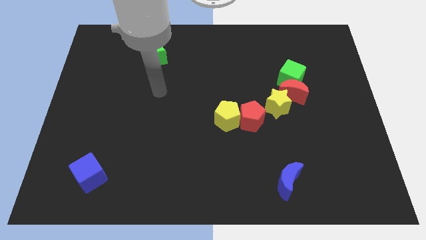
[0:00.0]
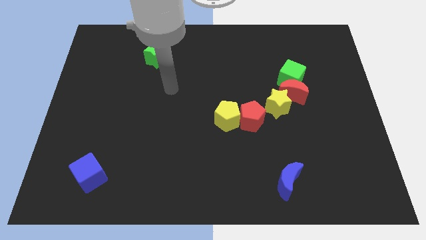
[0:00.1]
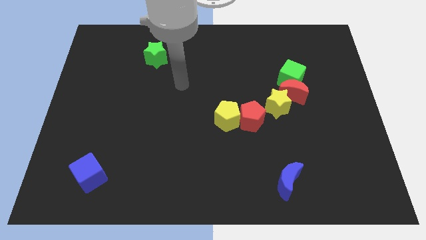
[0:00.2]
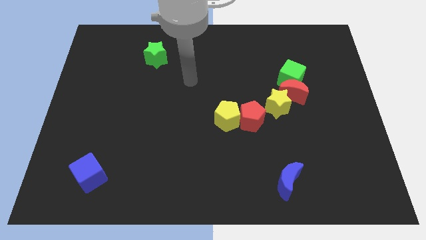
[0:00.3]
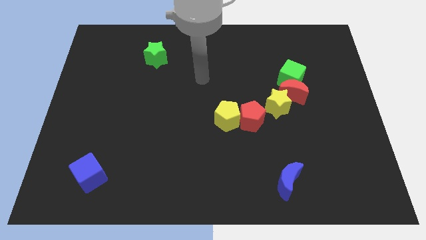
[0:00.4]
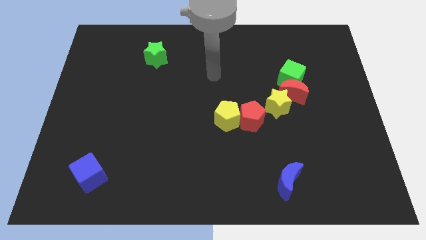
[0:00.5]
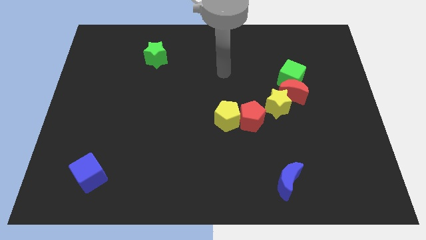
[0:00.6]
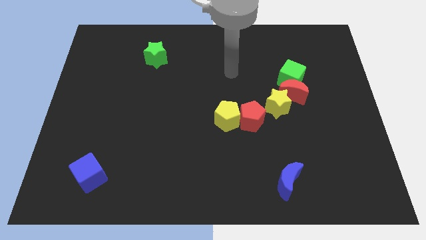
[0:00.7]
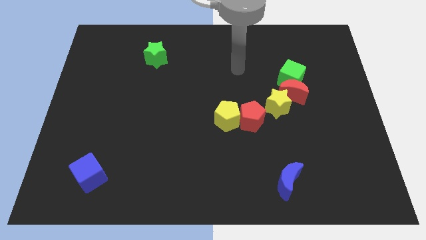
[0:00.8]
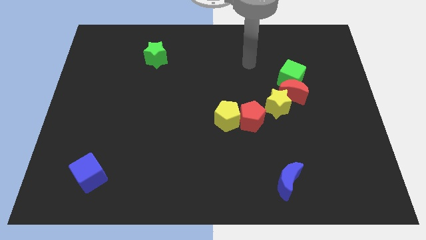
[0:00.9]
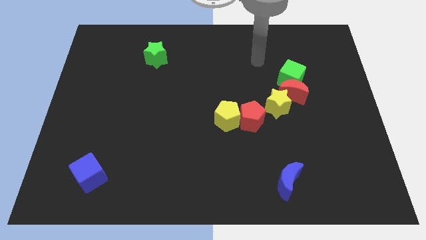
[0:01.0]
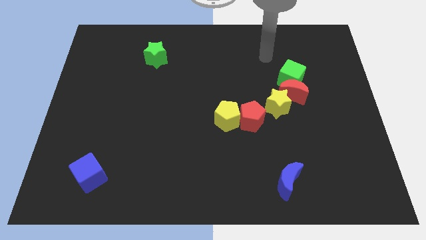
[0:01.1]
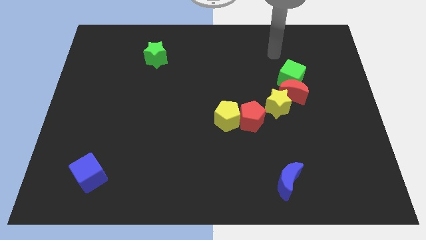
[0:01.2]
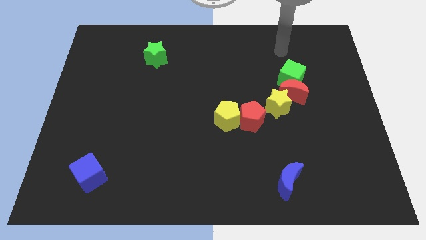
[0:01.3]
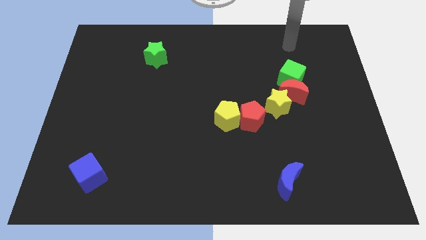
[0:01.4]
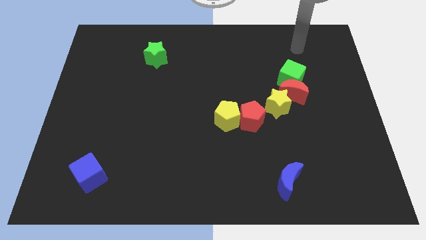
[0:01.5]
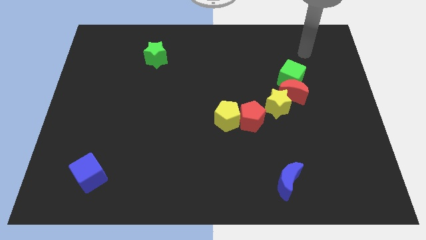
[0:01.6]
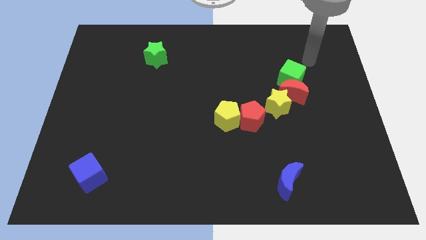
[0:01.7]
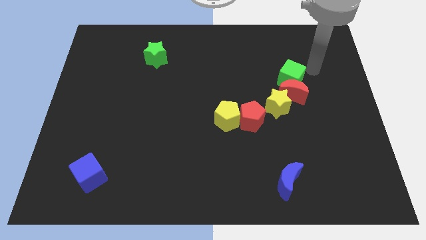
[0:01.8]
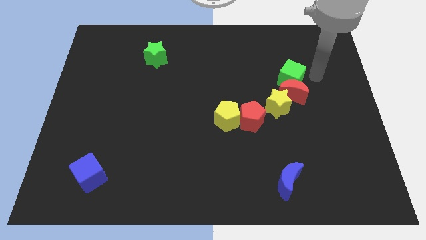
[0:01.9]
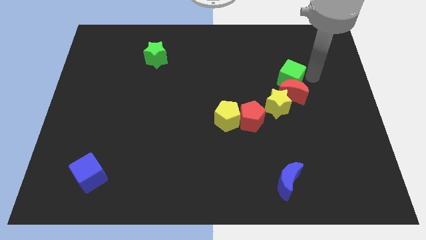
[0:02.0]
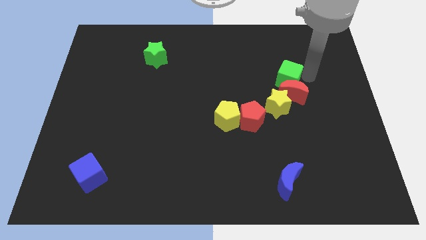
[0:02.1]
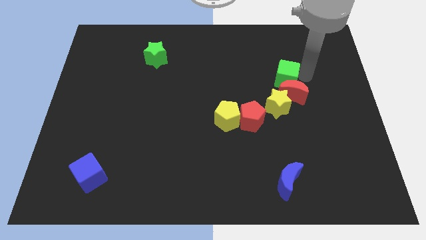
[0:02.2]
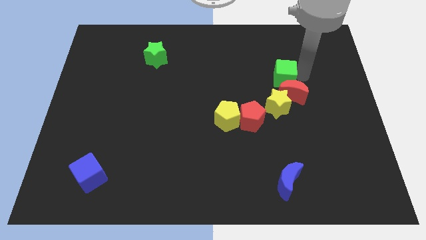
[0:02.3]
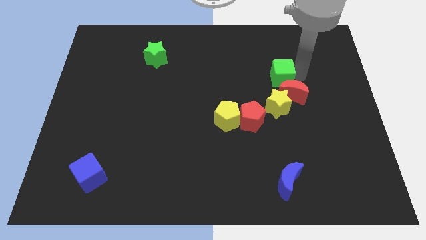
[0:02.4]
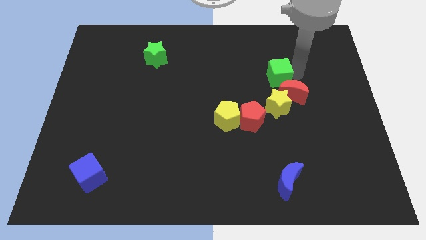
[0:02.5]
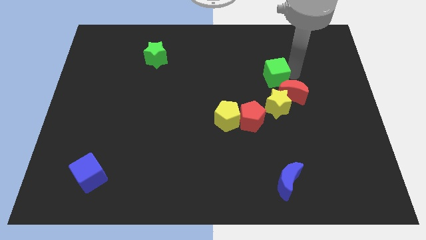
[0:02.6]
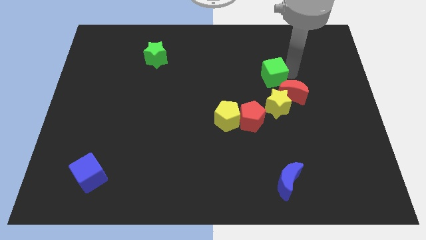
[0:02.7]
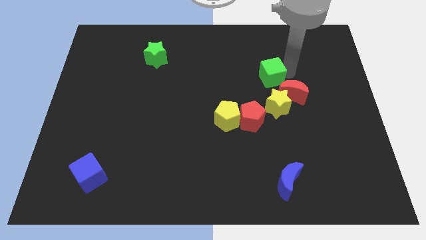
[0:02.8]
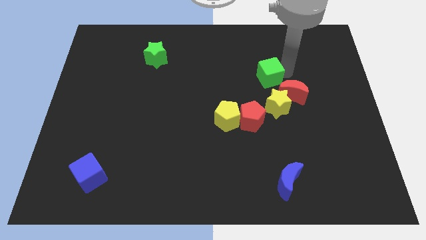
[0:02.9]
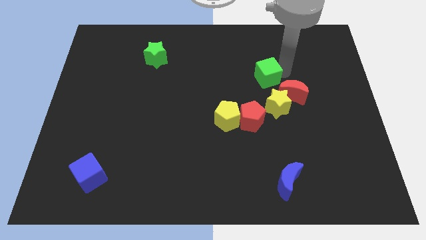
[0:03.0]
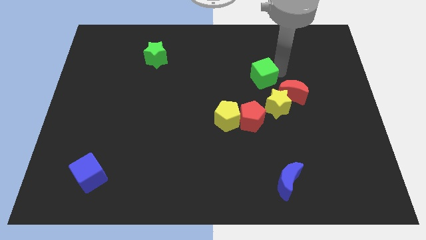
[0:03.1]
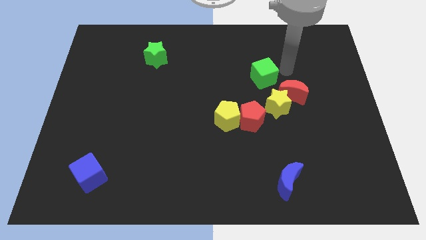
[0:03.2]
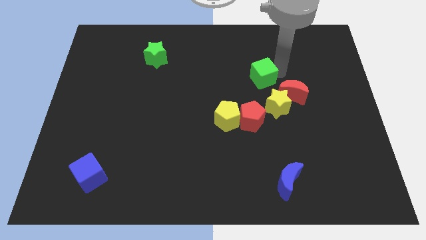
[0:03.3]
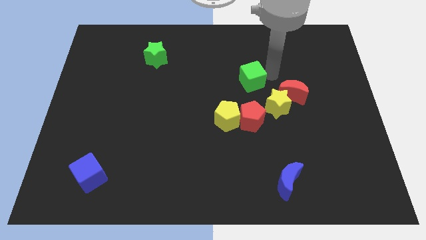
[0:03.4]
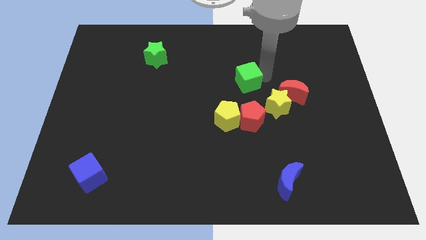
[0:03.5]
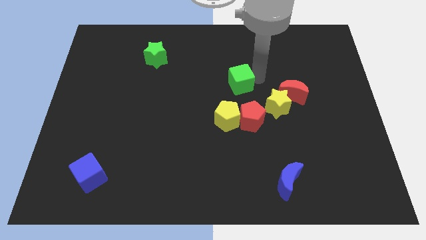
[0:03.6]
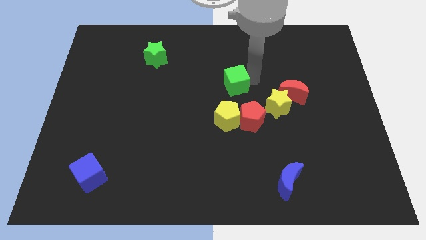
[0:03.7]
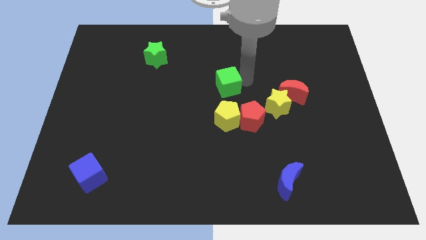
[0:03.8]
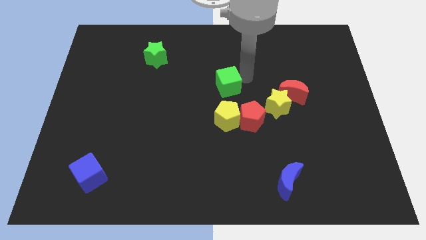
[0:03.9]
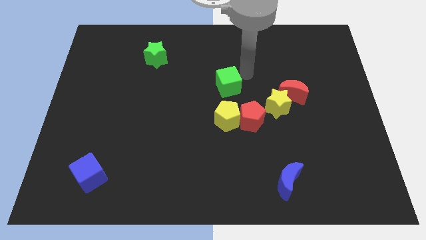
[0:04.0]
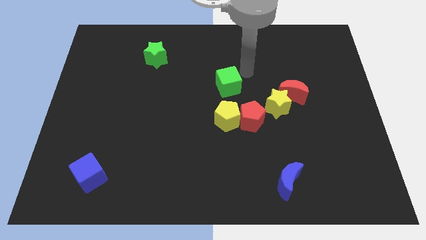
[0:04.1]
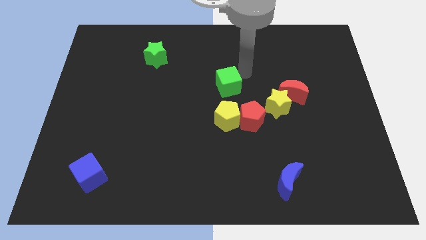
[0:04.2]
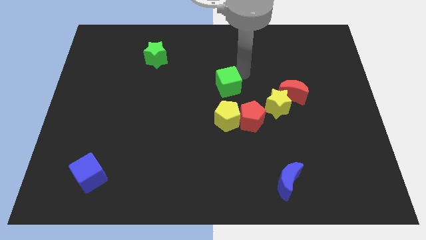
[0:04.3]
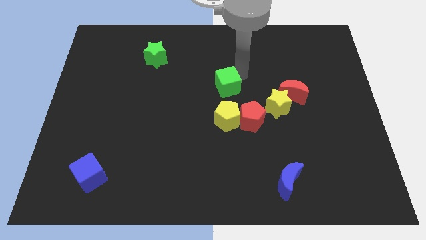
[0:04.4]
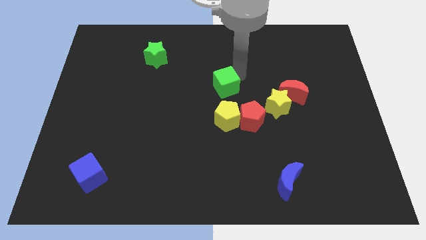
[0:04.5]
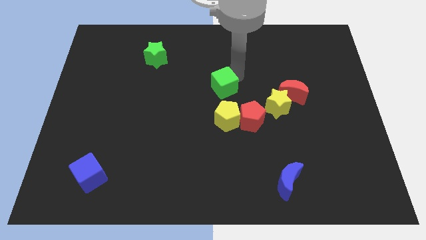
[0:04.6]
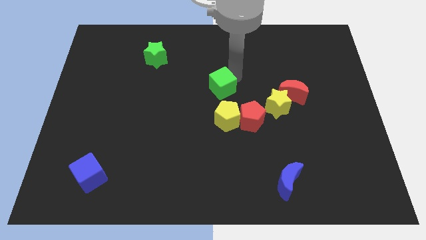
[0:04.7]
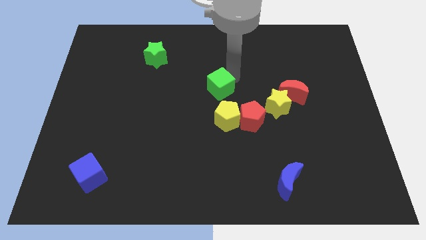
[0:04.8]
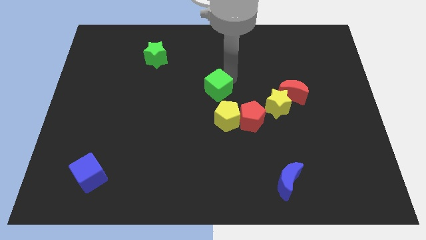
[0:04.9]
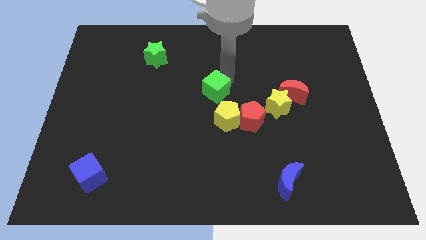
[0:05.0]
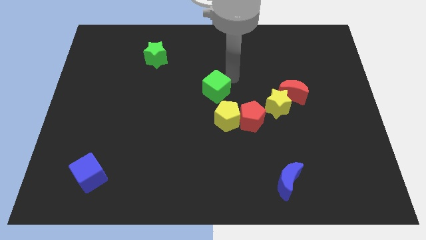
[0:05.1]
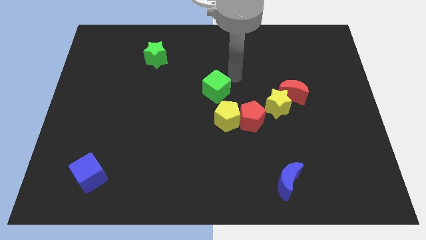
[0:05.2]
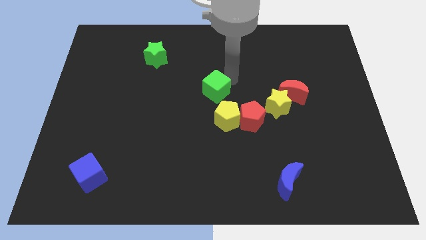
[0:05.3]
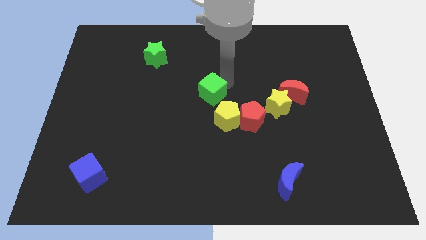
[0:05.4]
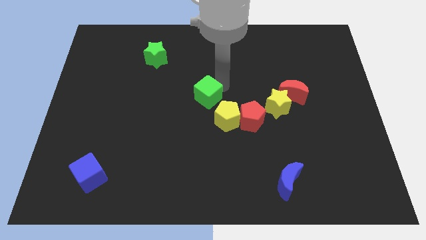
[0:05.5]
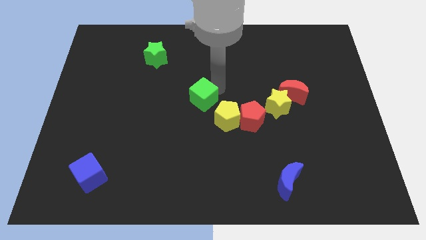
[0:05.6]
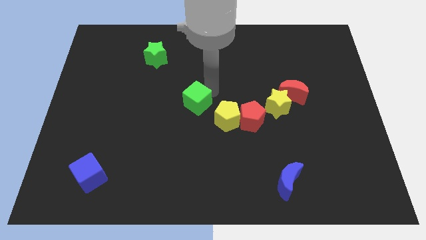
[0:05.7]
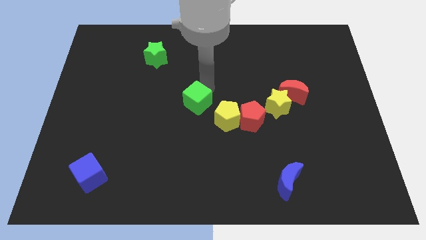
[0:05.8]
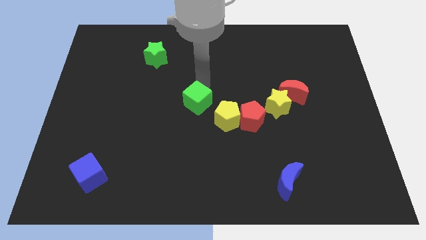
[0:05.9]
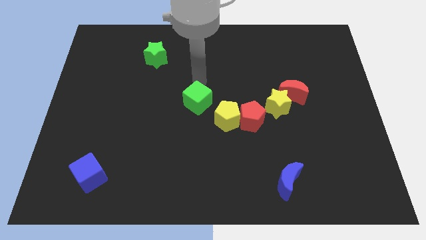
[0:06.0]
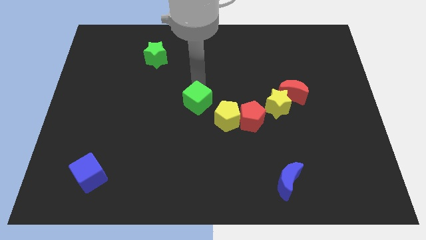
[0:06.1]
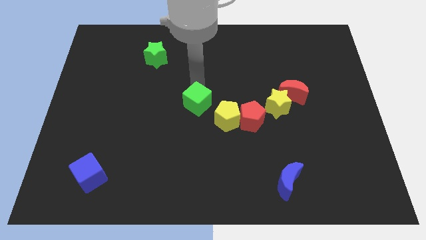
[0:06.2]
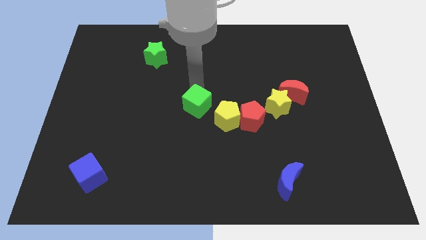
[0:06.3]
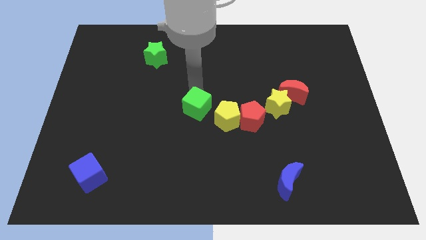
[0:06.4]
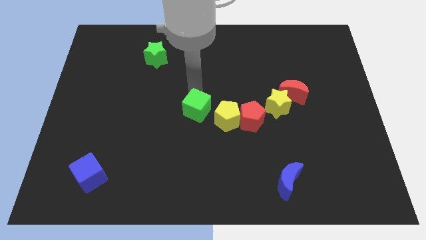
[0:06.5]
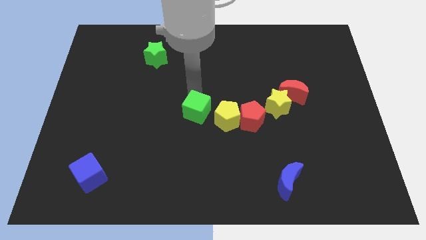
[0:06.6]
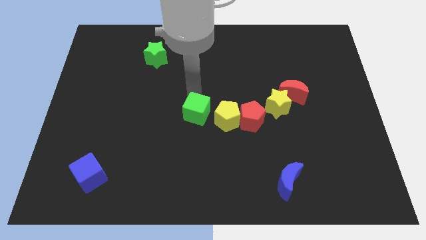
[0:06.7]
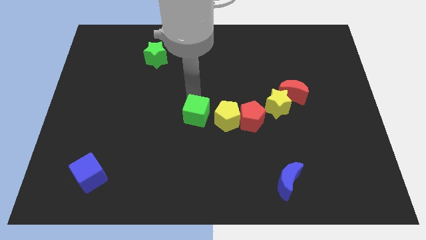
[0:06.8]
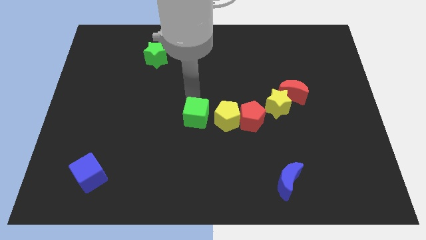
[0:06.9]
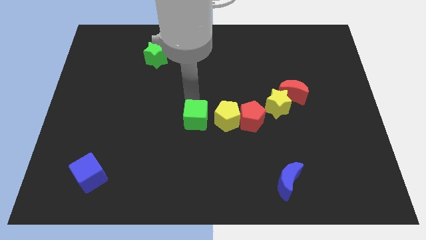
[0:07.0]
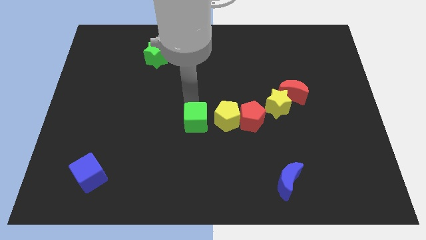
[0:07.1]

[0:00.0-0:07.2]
put the green cube diagonally down and to the left of the yellow pentagon
